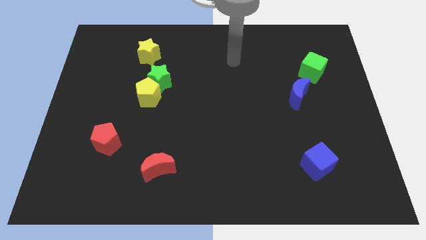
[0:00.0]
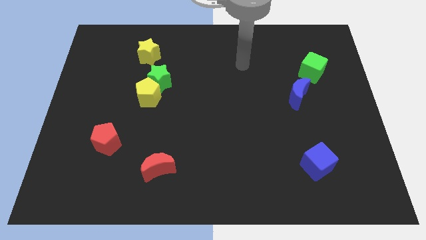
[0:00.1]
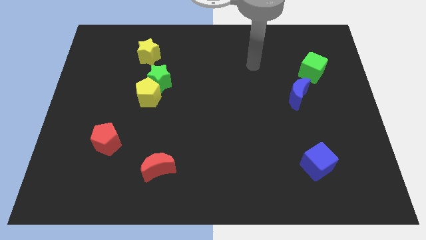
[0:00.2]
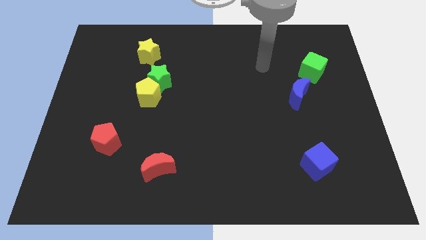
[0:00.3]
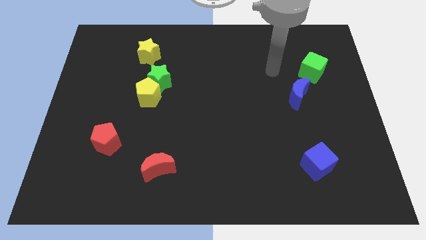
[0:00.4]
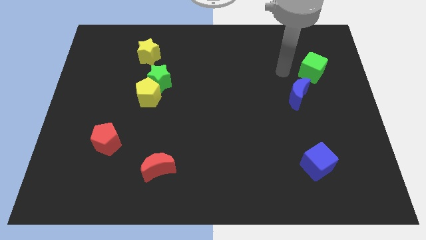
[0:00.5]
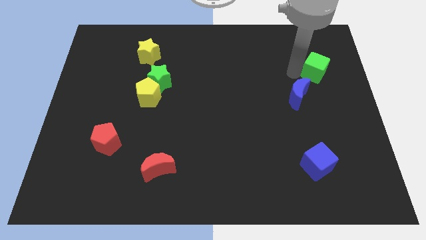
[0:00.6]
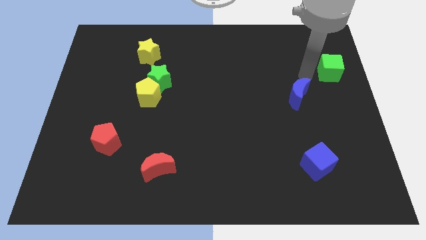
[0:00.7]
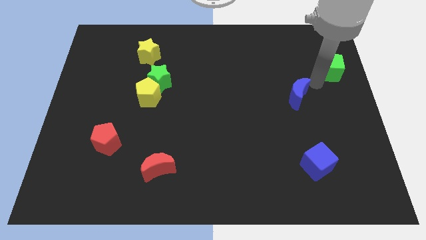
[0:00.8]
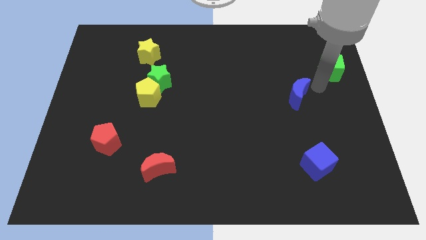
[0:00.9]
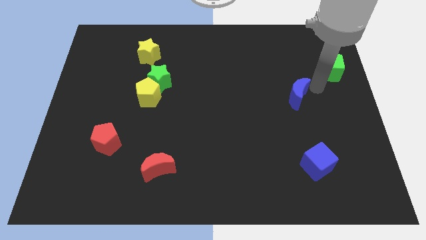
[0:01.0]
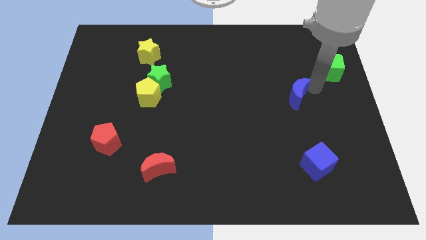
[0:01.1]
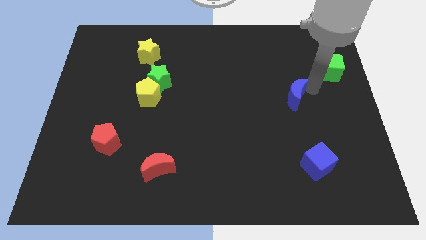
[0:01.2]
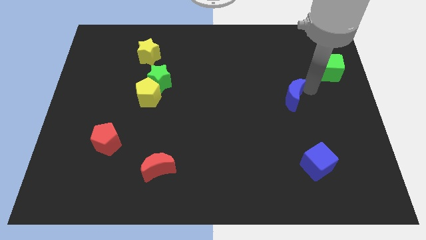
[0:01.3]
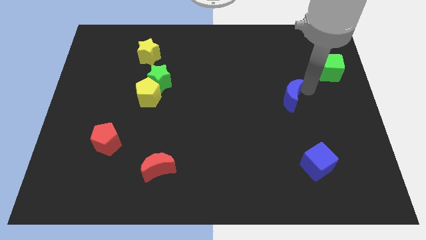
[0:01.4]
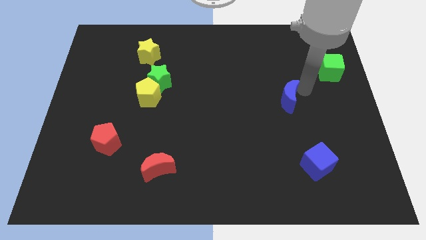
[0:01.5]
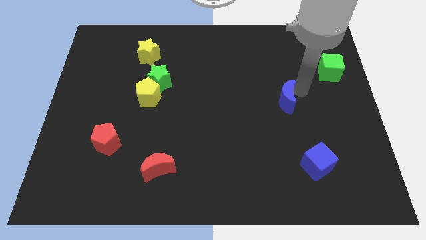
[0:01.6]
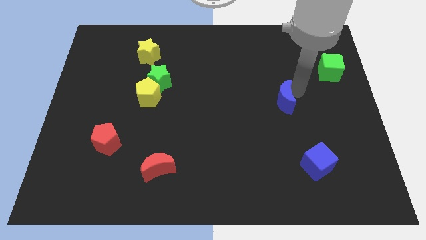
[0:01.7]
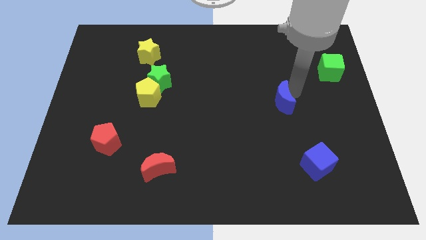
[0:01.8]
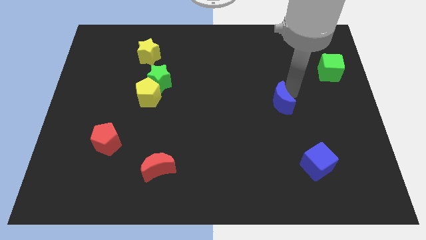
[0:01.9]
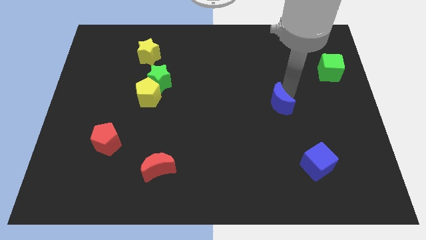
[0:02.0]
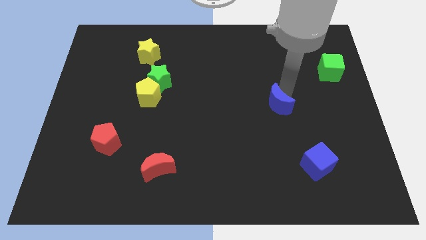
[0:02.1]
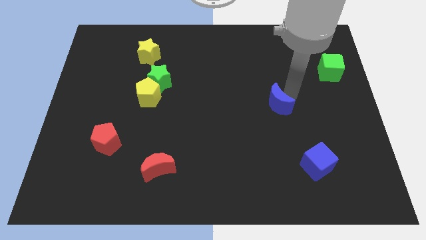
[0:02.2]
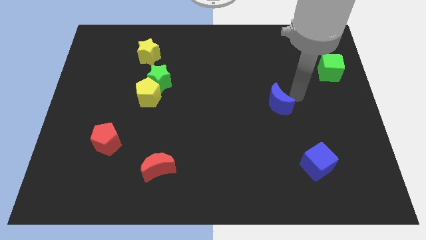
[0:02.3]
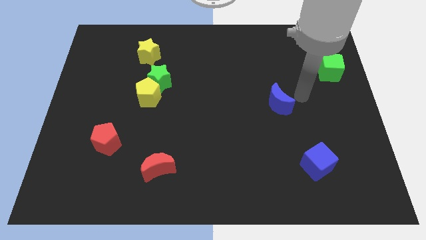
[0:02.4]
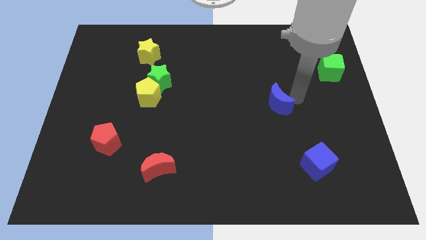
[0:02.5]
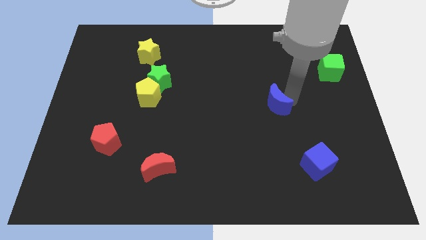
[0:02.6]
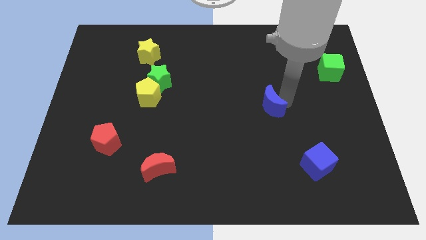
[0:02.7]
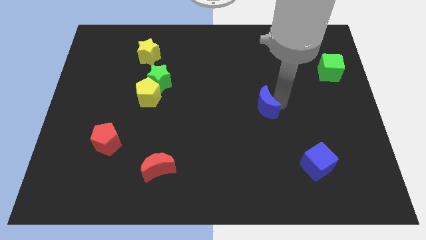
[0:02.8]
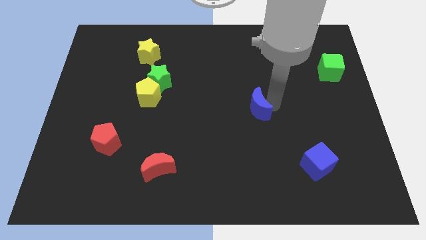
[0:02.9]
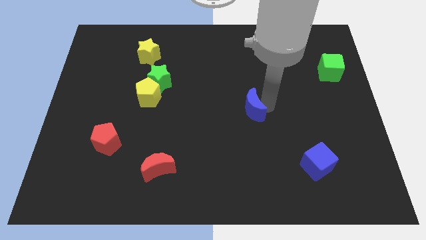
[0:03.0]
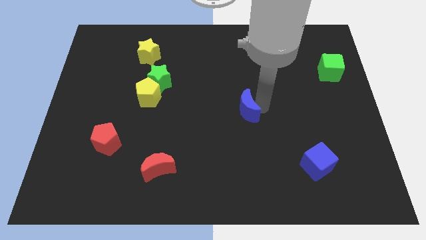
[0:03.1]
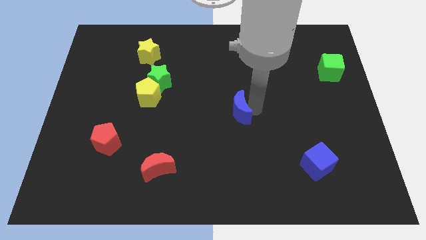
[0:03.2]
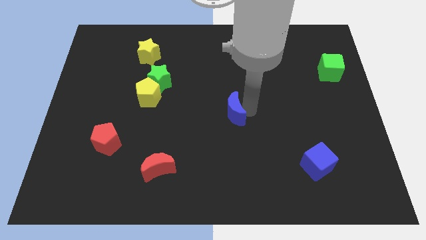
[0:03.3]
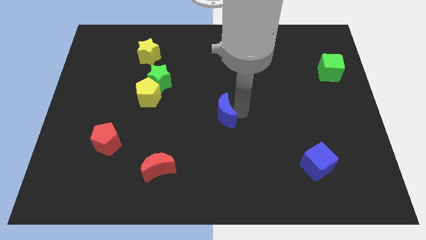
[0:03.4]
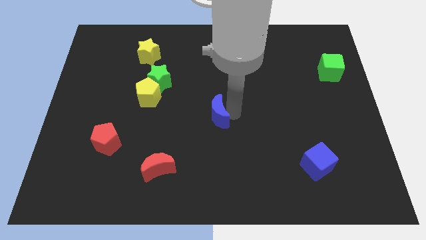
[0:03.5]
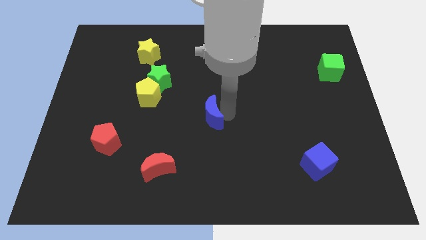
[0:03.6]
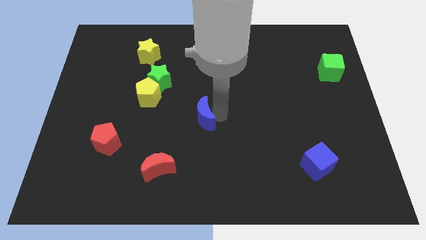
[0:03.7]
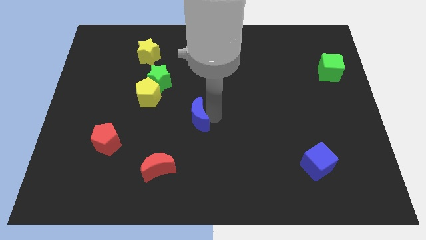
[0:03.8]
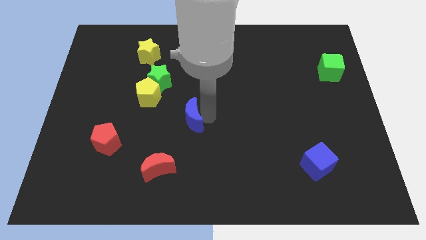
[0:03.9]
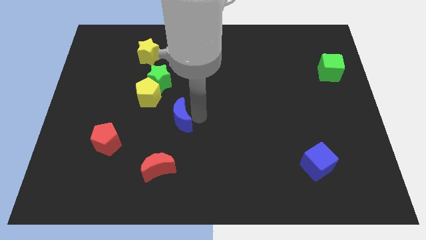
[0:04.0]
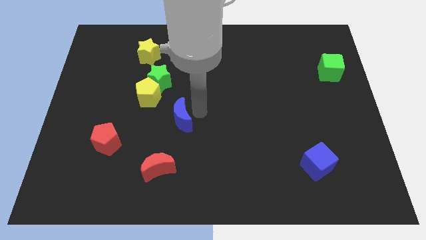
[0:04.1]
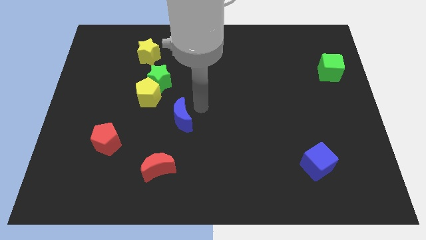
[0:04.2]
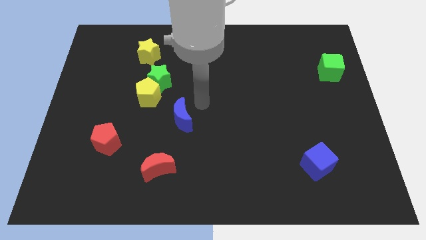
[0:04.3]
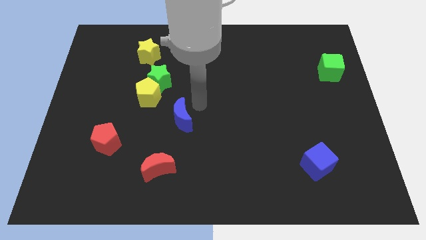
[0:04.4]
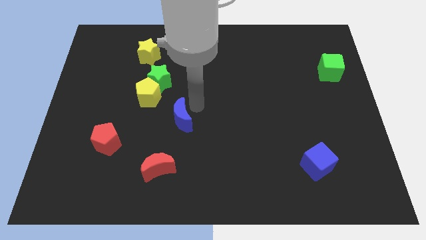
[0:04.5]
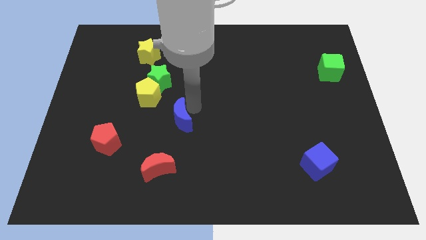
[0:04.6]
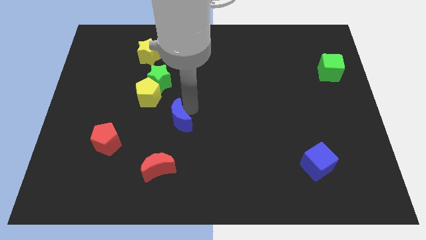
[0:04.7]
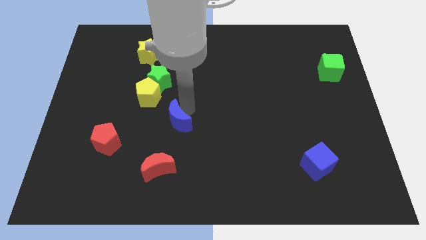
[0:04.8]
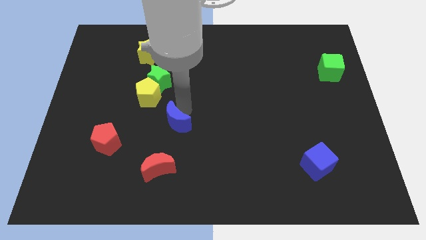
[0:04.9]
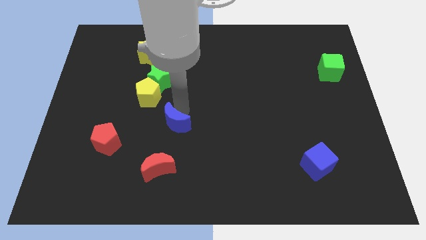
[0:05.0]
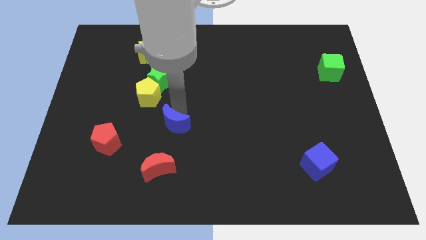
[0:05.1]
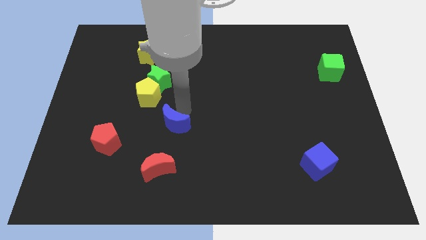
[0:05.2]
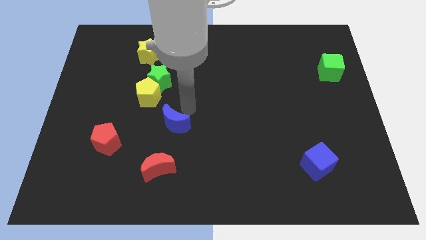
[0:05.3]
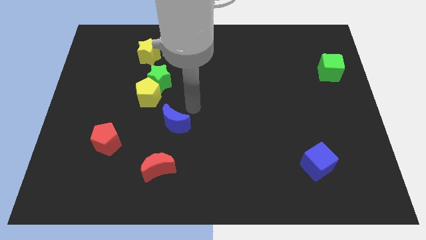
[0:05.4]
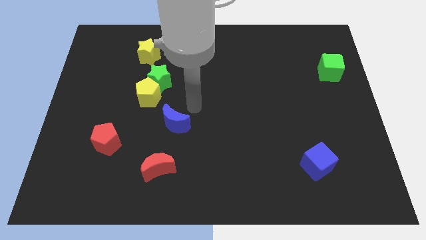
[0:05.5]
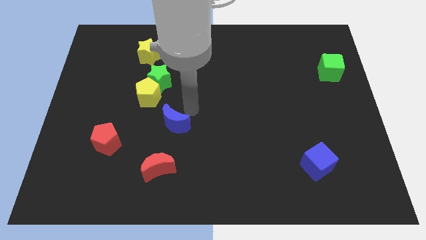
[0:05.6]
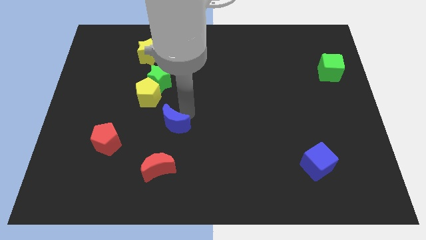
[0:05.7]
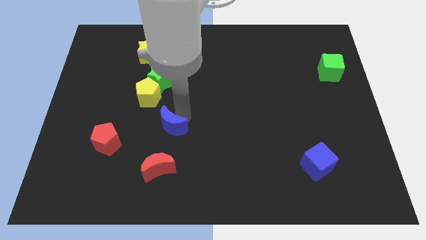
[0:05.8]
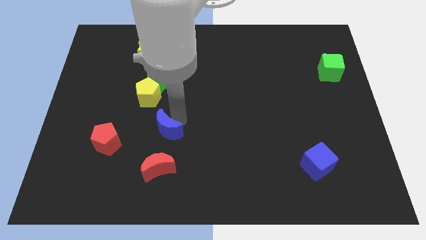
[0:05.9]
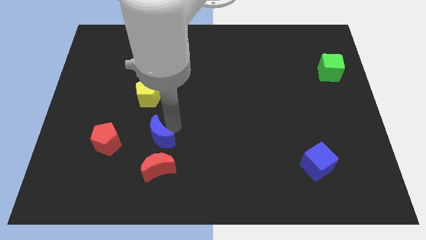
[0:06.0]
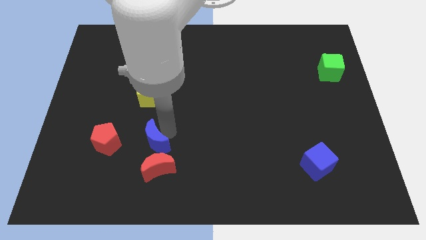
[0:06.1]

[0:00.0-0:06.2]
push the blue moon to the top left side of the red moon

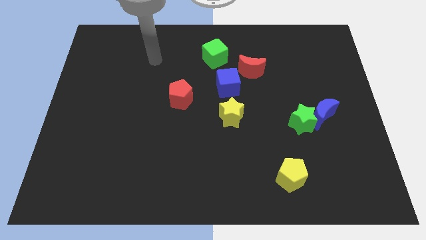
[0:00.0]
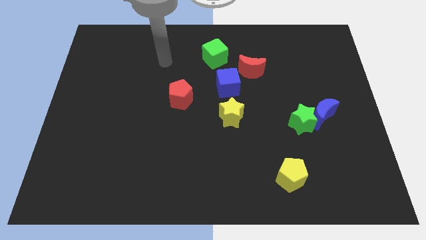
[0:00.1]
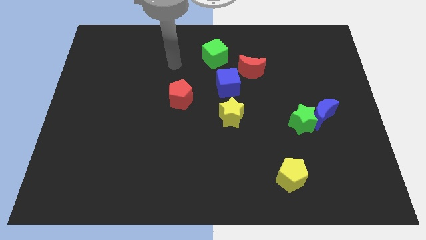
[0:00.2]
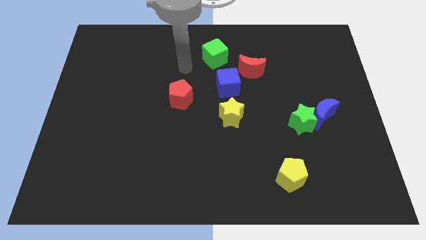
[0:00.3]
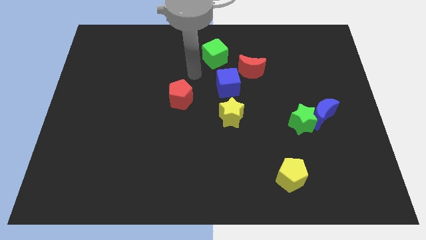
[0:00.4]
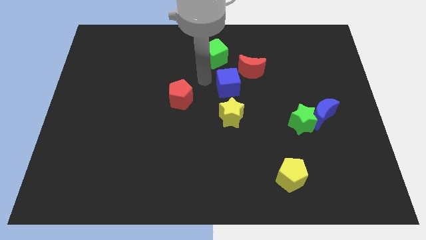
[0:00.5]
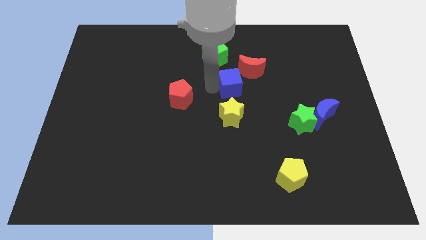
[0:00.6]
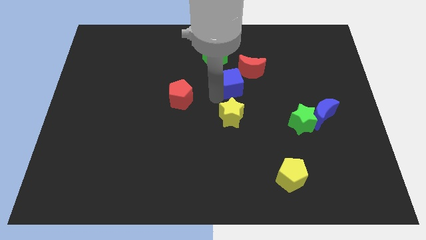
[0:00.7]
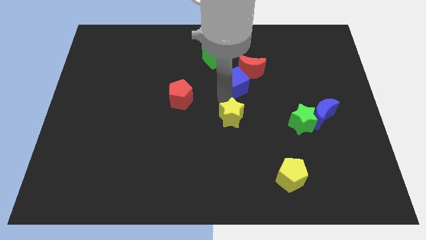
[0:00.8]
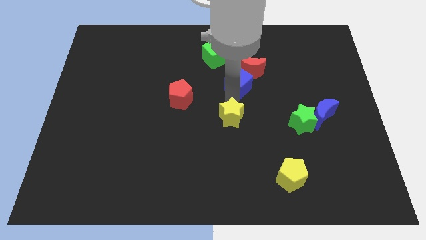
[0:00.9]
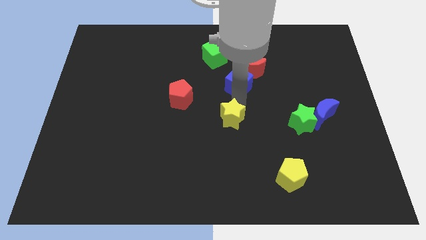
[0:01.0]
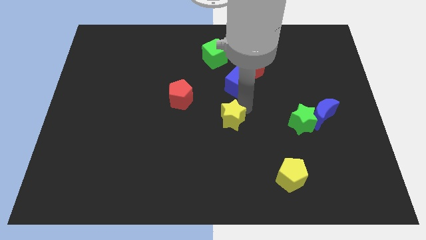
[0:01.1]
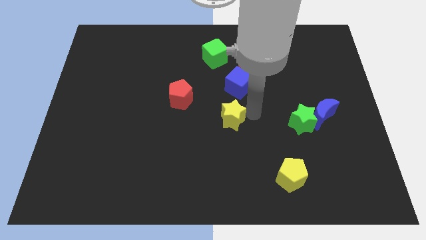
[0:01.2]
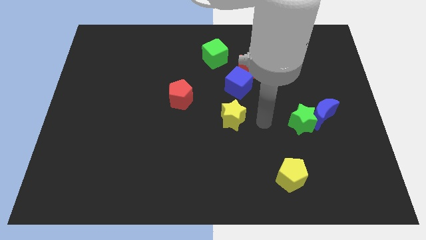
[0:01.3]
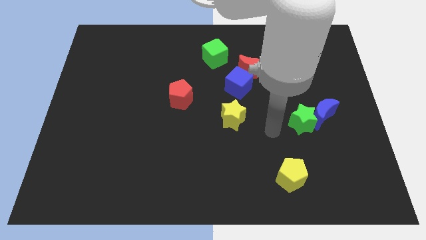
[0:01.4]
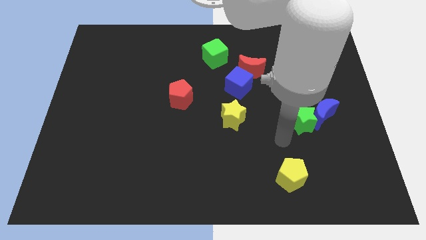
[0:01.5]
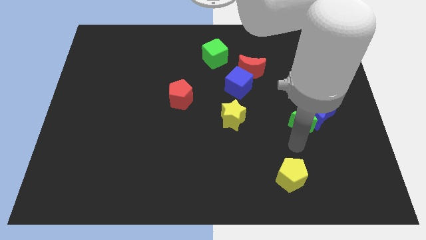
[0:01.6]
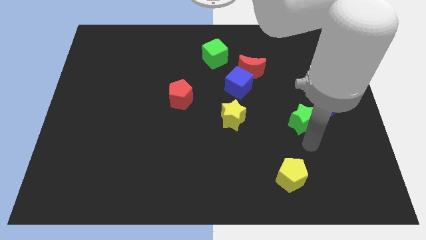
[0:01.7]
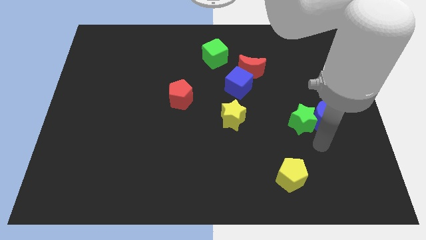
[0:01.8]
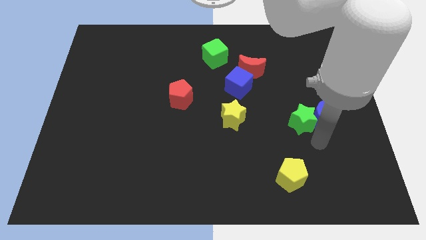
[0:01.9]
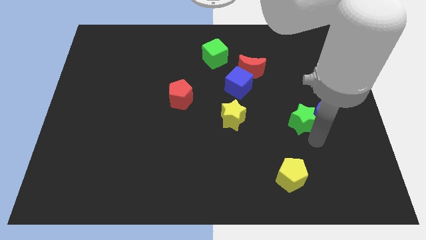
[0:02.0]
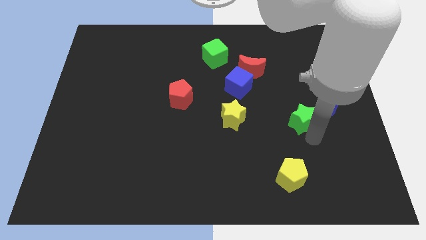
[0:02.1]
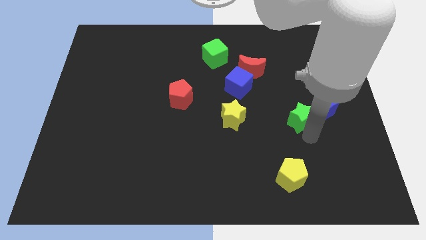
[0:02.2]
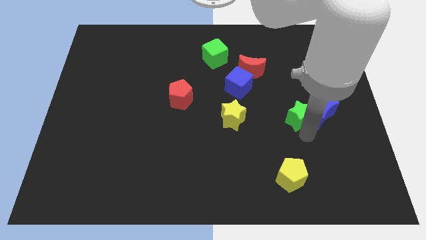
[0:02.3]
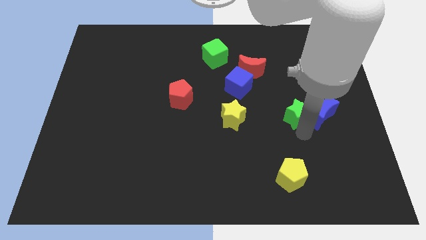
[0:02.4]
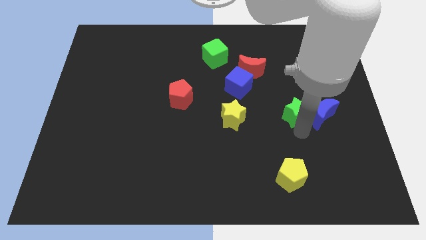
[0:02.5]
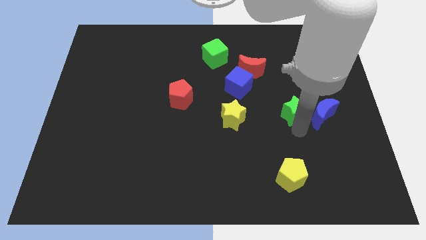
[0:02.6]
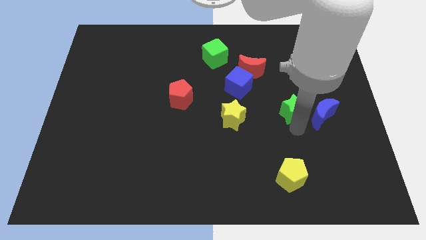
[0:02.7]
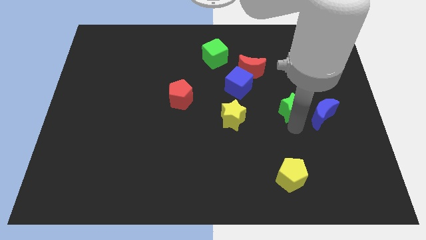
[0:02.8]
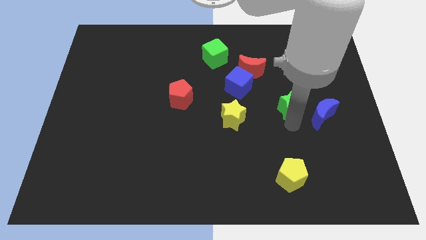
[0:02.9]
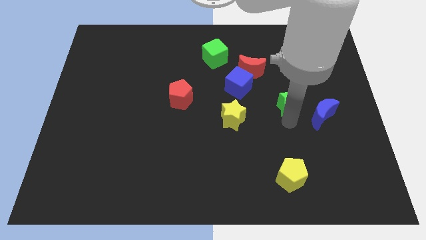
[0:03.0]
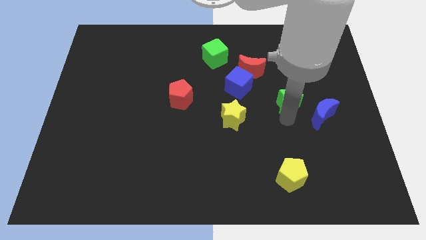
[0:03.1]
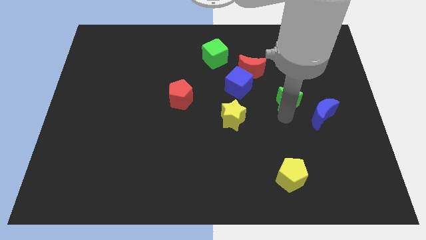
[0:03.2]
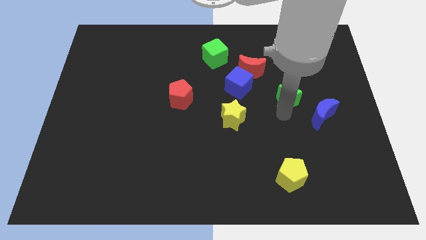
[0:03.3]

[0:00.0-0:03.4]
put the green star to the bottom right side of the red moon
